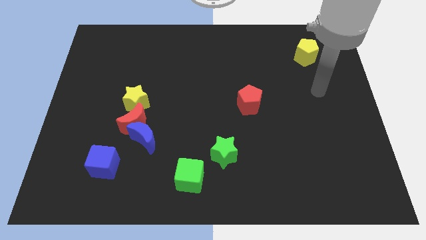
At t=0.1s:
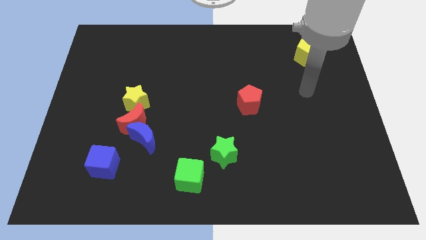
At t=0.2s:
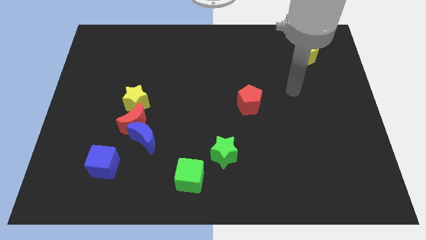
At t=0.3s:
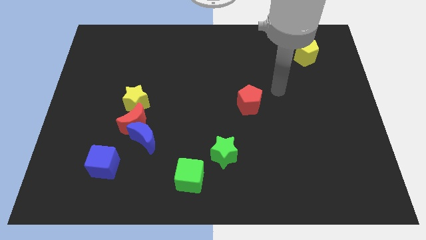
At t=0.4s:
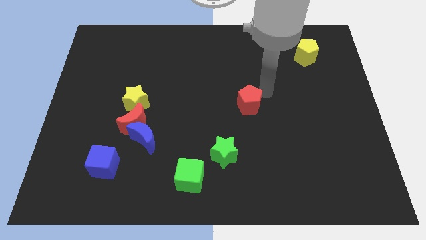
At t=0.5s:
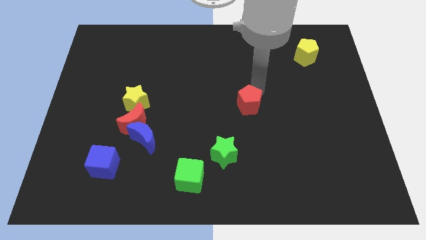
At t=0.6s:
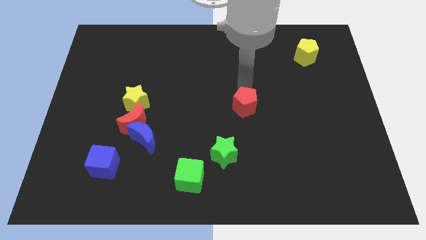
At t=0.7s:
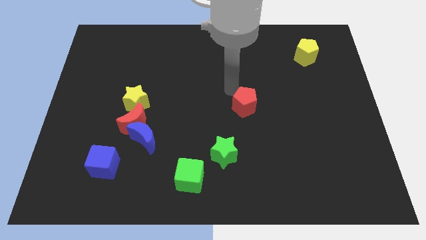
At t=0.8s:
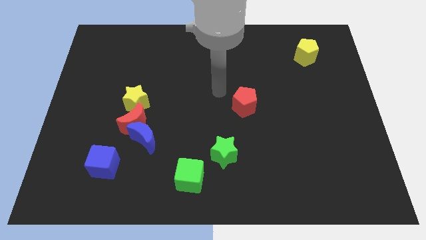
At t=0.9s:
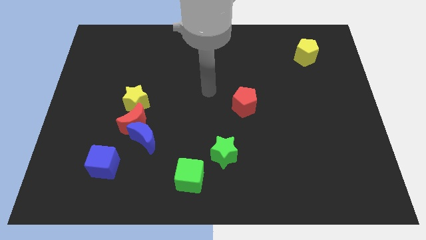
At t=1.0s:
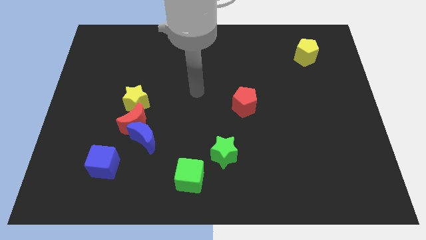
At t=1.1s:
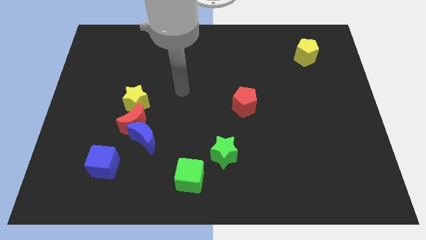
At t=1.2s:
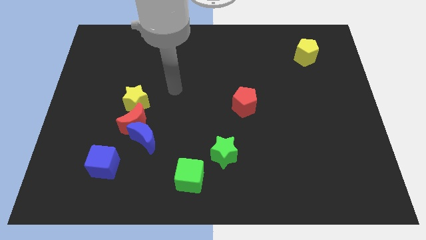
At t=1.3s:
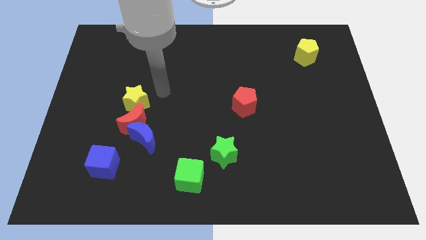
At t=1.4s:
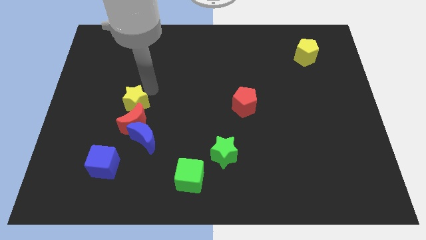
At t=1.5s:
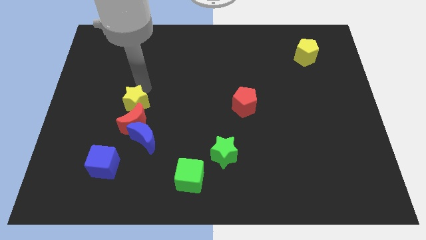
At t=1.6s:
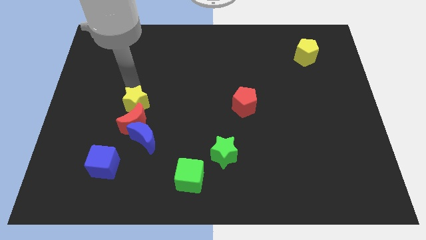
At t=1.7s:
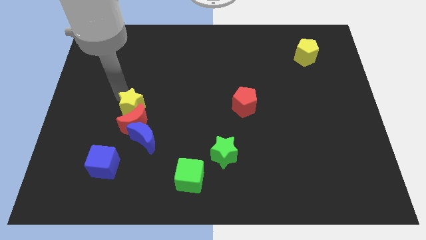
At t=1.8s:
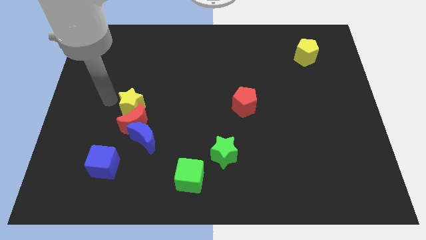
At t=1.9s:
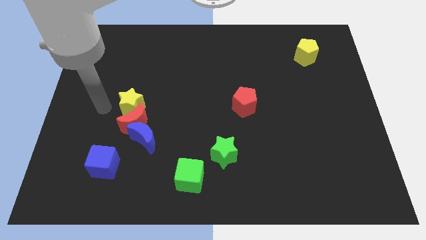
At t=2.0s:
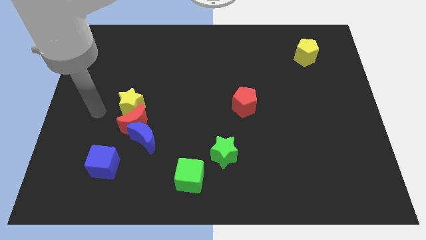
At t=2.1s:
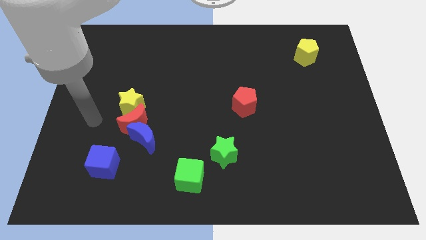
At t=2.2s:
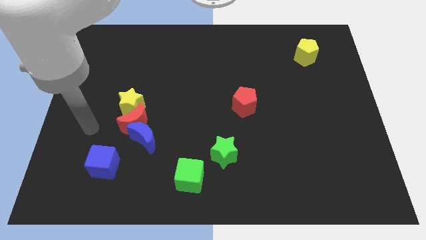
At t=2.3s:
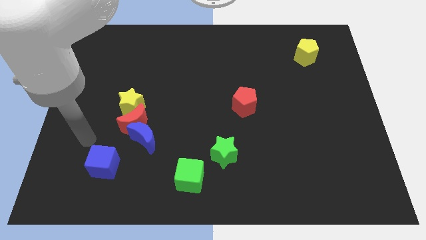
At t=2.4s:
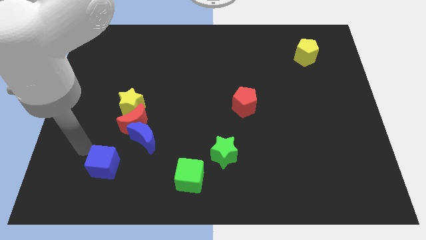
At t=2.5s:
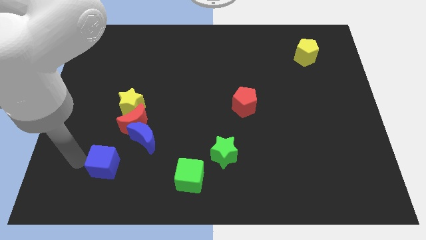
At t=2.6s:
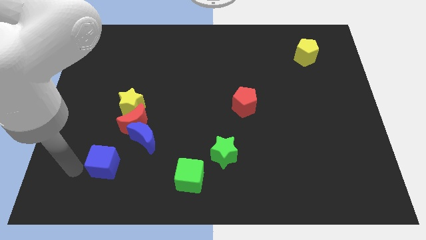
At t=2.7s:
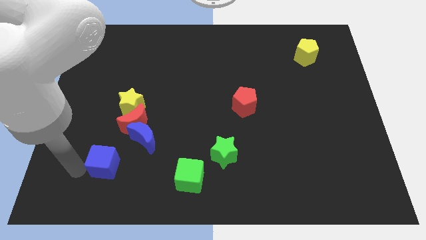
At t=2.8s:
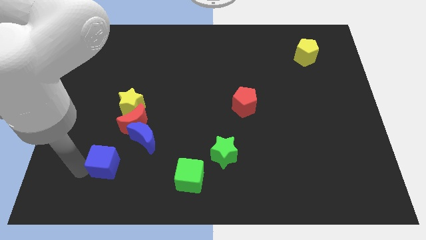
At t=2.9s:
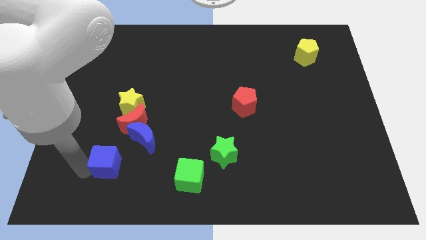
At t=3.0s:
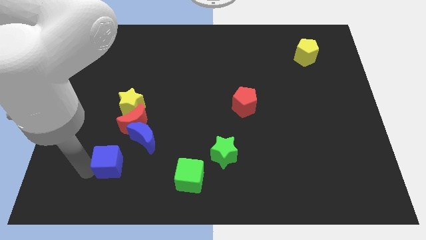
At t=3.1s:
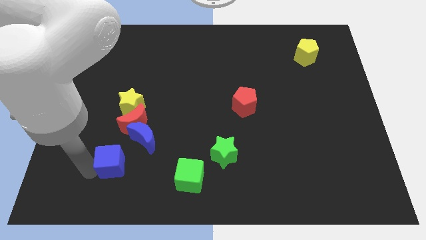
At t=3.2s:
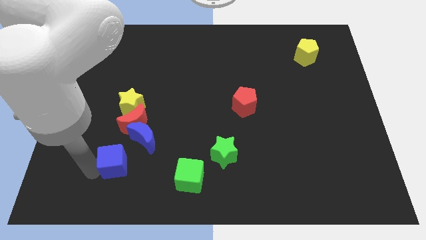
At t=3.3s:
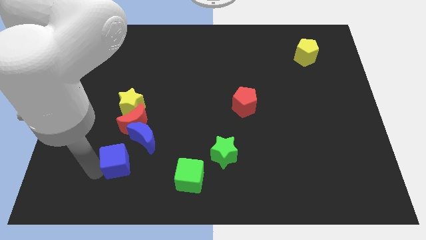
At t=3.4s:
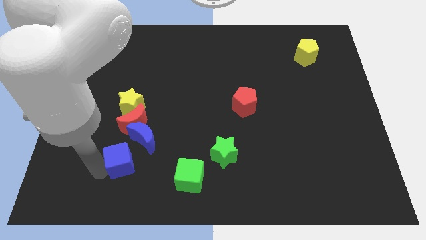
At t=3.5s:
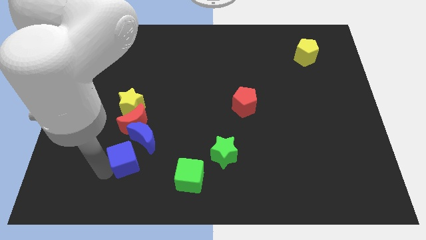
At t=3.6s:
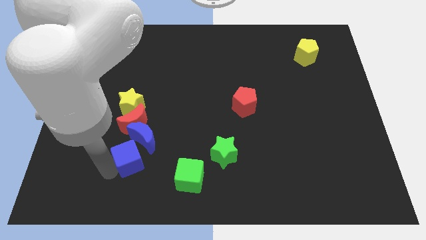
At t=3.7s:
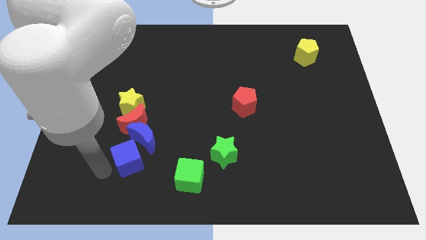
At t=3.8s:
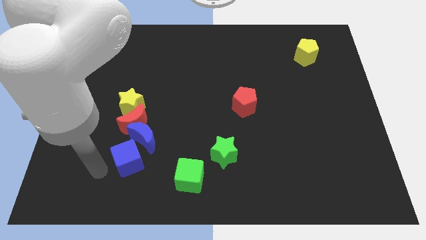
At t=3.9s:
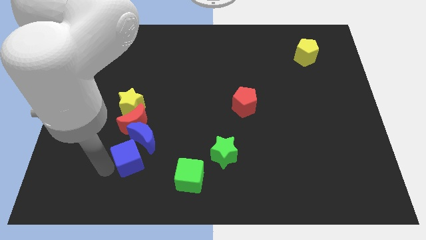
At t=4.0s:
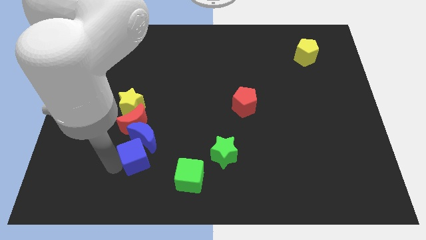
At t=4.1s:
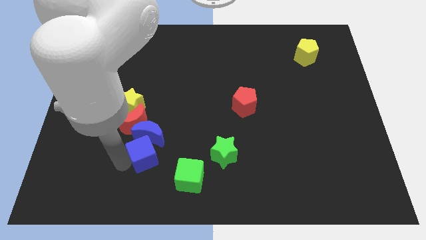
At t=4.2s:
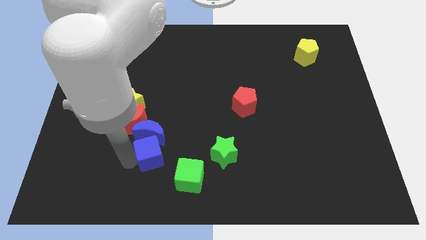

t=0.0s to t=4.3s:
slide the blue cube somewhat up and to the right diagonally

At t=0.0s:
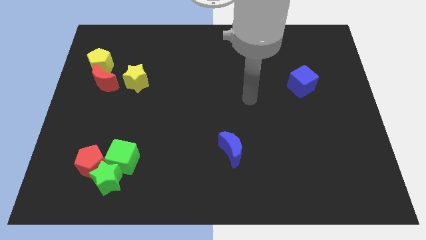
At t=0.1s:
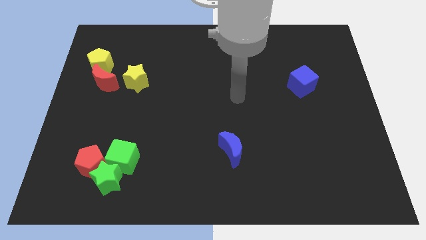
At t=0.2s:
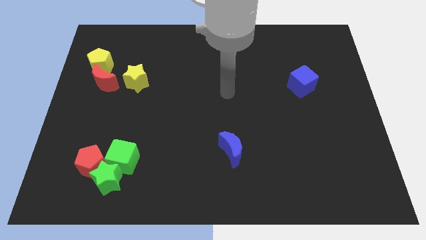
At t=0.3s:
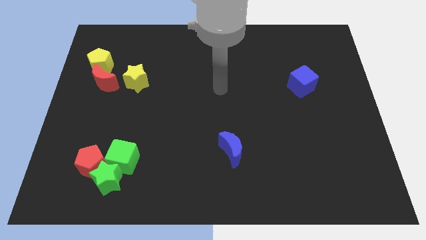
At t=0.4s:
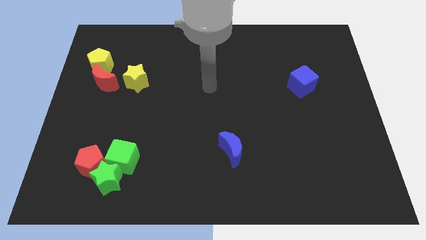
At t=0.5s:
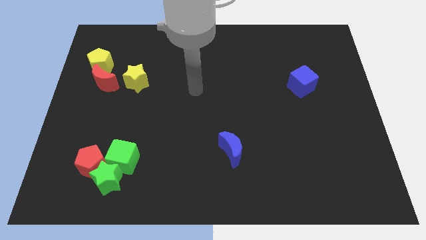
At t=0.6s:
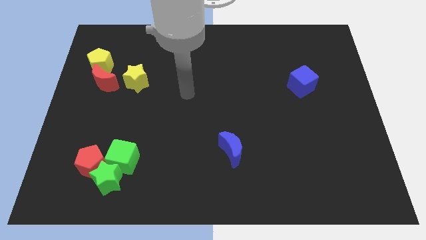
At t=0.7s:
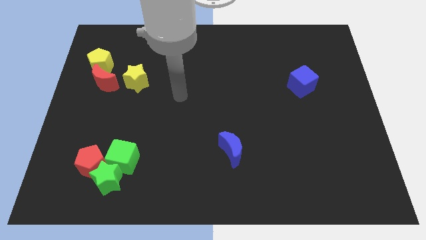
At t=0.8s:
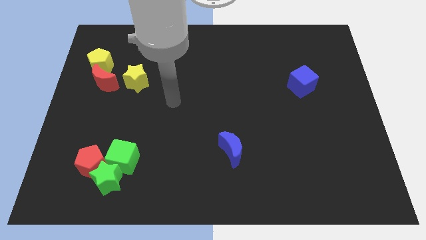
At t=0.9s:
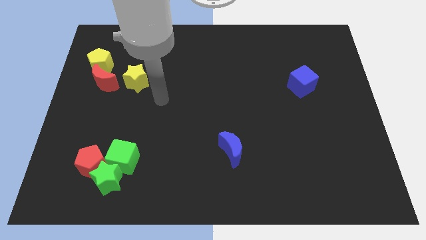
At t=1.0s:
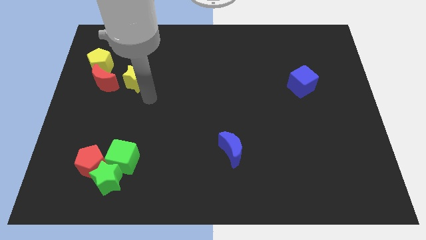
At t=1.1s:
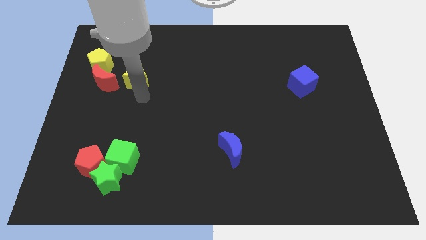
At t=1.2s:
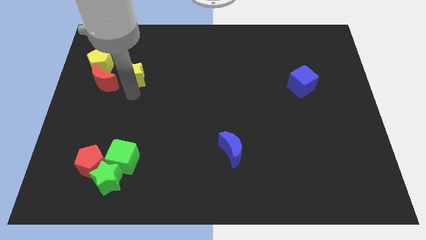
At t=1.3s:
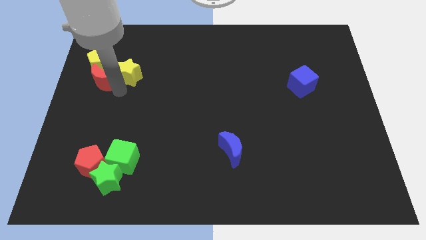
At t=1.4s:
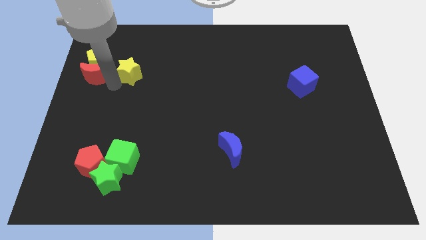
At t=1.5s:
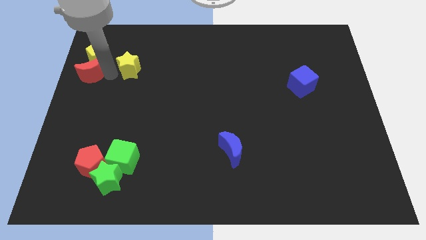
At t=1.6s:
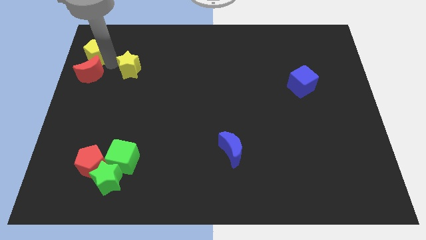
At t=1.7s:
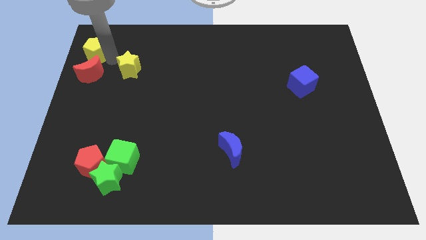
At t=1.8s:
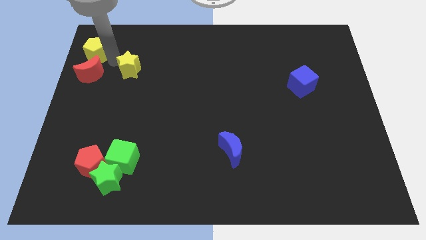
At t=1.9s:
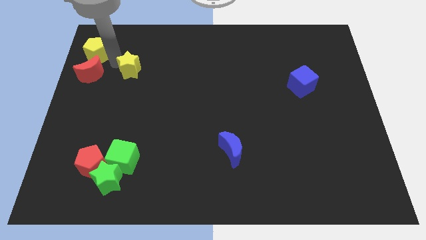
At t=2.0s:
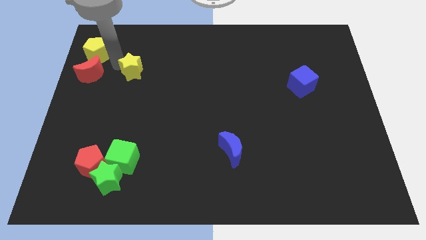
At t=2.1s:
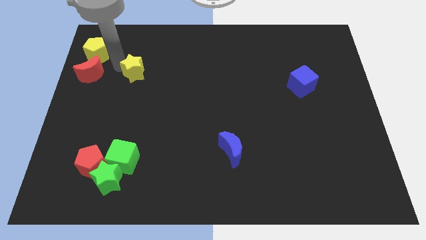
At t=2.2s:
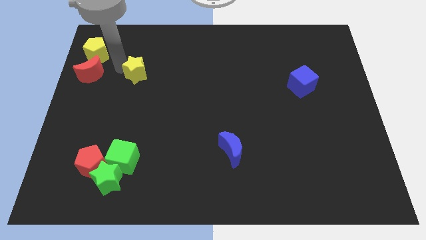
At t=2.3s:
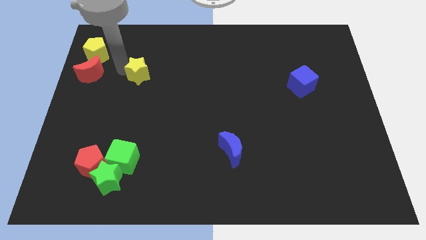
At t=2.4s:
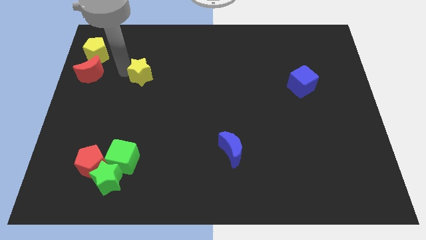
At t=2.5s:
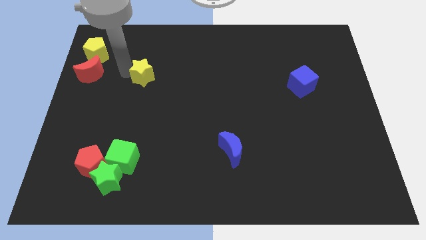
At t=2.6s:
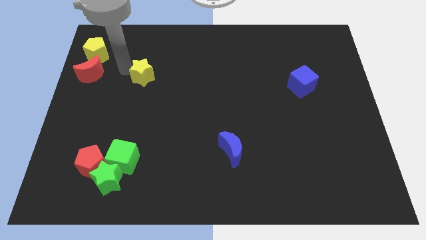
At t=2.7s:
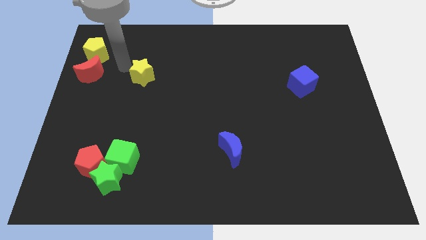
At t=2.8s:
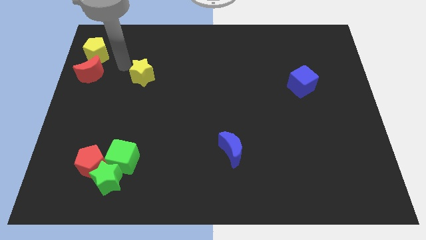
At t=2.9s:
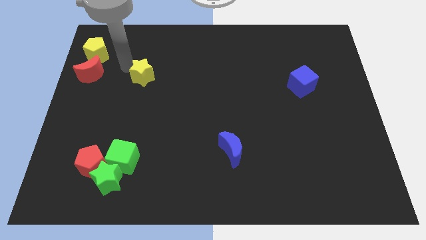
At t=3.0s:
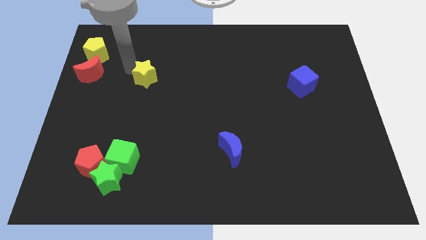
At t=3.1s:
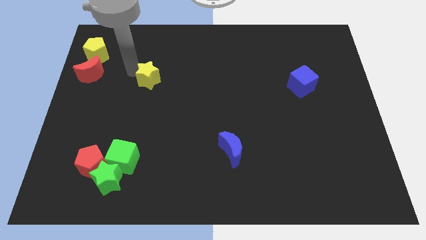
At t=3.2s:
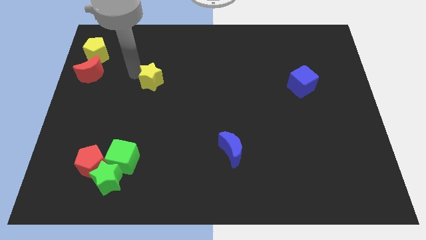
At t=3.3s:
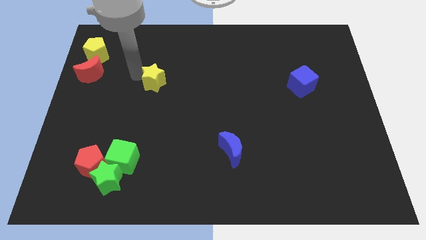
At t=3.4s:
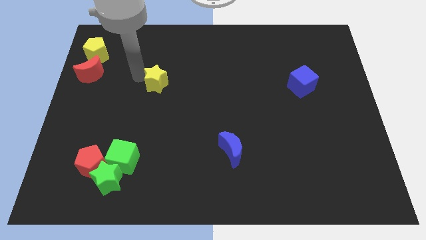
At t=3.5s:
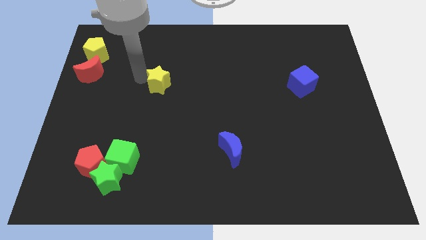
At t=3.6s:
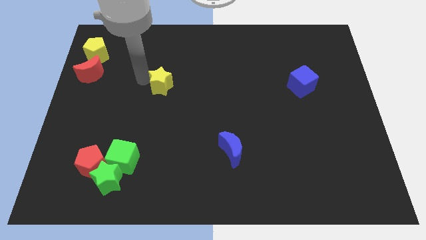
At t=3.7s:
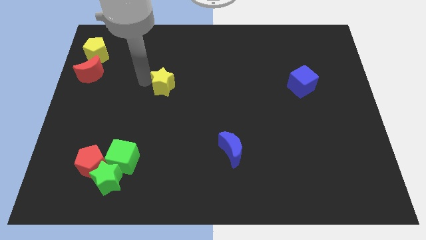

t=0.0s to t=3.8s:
push the yellow star to the right a bit
